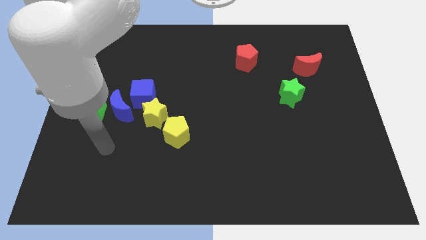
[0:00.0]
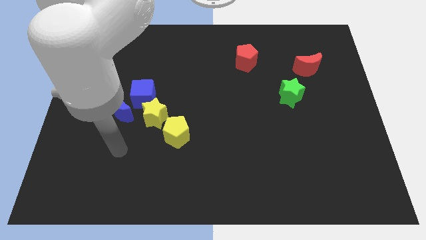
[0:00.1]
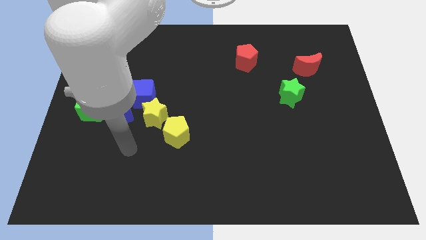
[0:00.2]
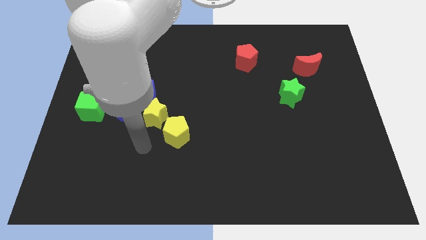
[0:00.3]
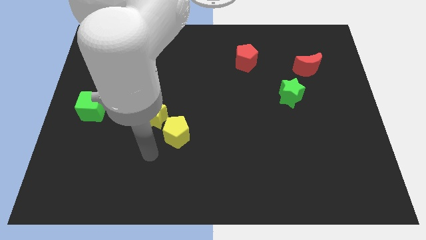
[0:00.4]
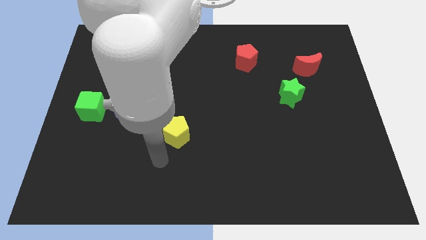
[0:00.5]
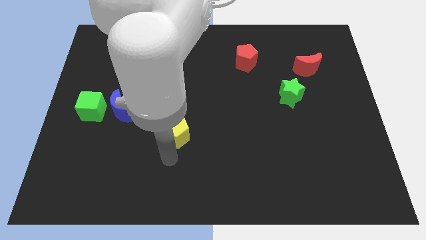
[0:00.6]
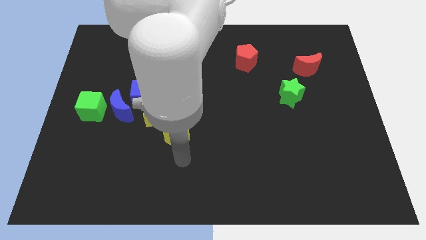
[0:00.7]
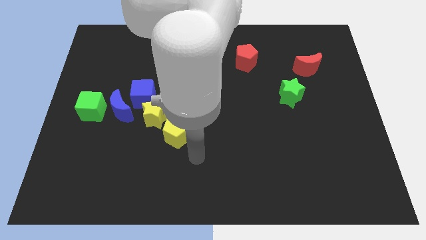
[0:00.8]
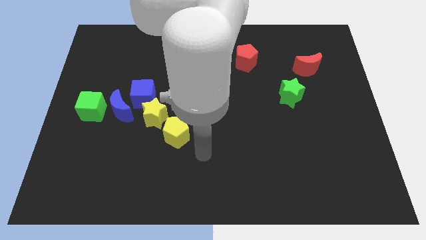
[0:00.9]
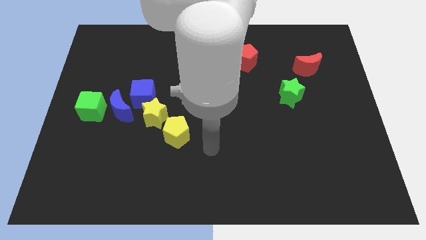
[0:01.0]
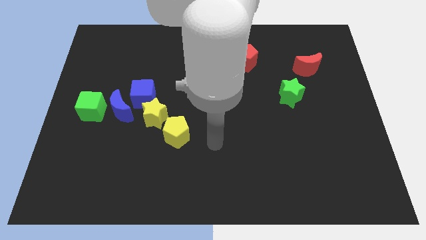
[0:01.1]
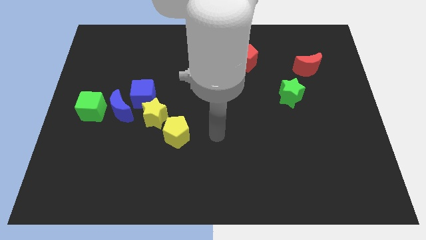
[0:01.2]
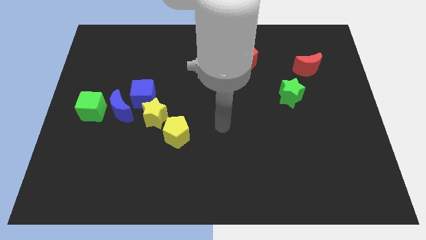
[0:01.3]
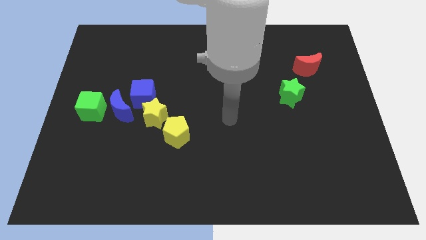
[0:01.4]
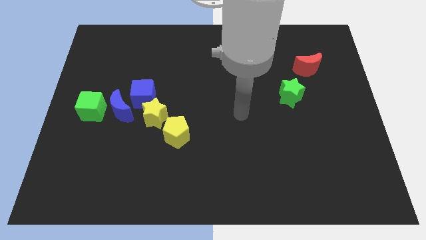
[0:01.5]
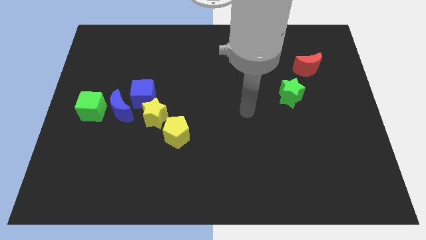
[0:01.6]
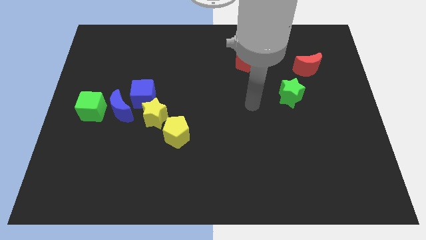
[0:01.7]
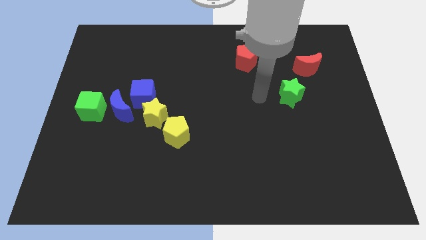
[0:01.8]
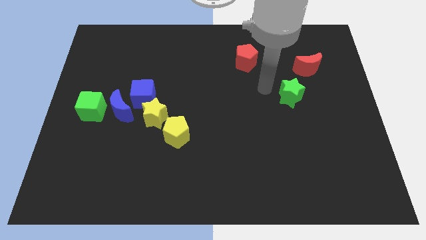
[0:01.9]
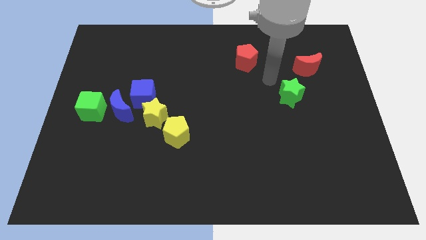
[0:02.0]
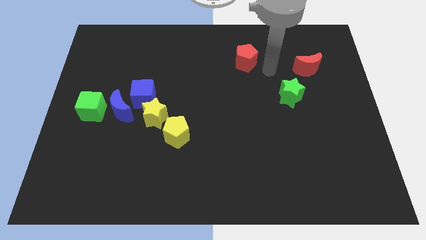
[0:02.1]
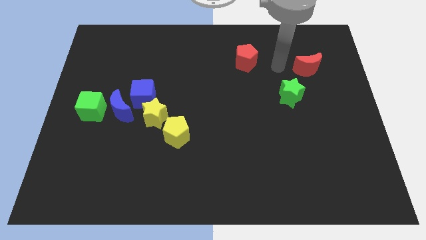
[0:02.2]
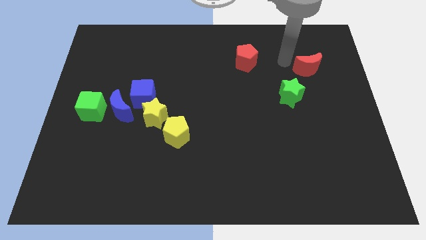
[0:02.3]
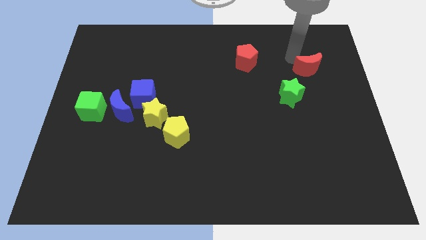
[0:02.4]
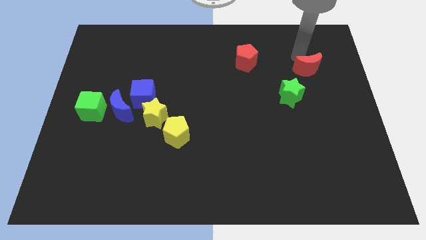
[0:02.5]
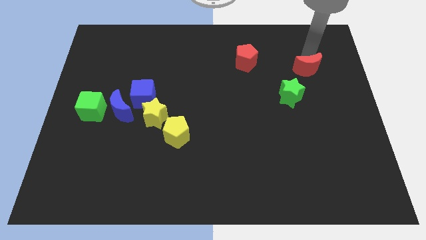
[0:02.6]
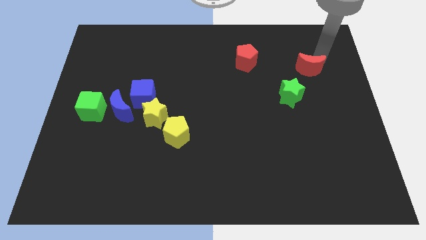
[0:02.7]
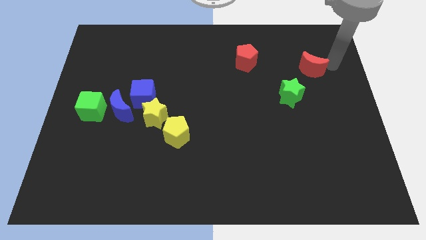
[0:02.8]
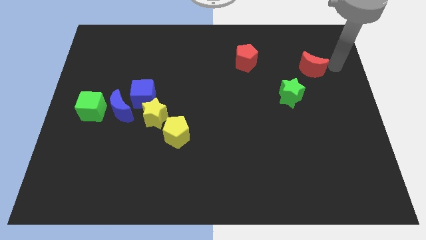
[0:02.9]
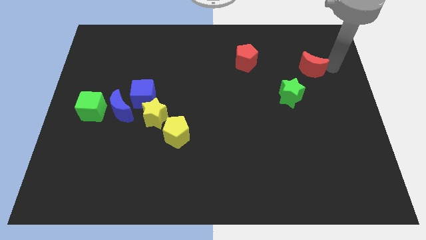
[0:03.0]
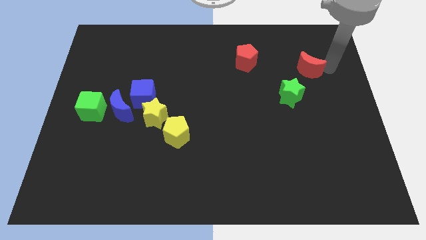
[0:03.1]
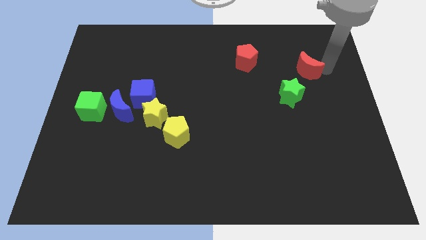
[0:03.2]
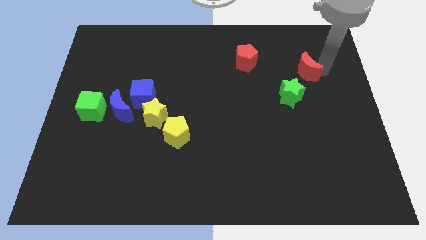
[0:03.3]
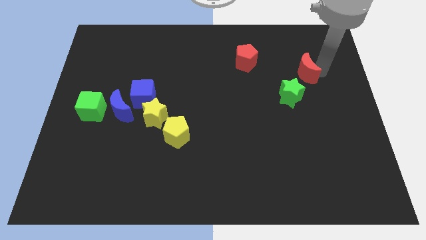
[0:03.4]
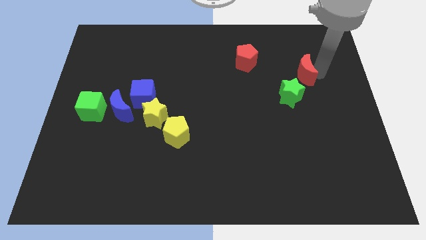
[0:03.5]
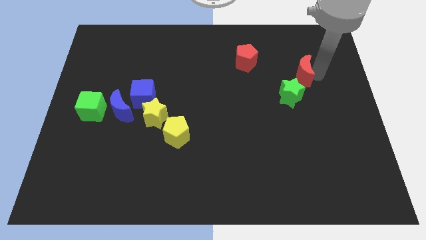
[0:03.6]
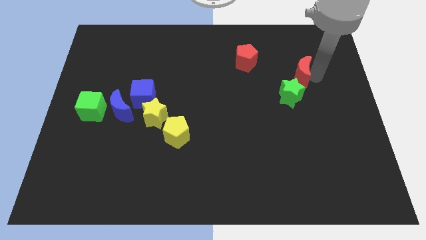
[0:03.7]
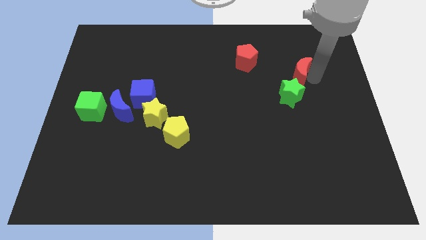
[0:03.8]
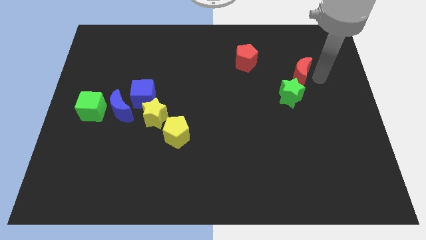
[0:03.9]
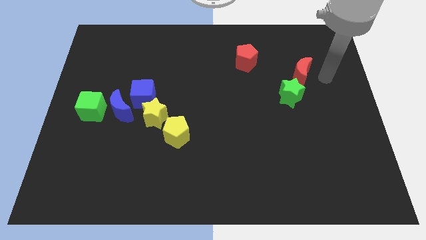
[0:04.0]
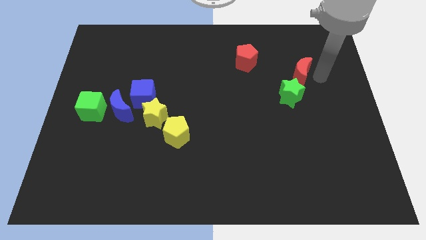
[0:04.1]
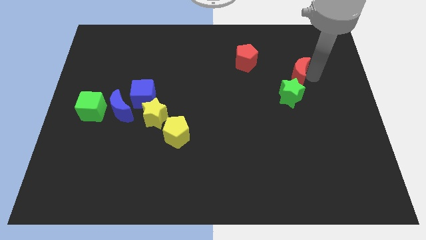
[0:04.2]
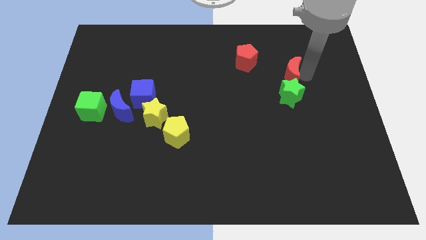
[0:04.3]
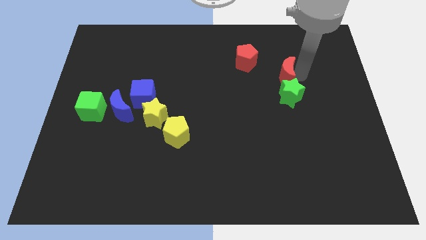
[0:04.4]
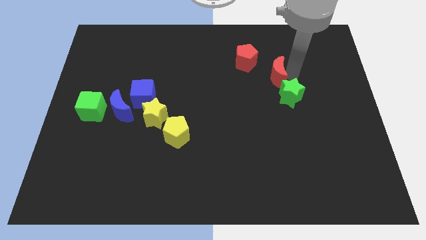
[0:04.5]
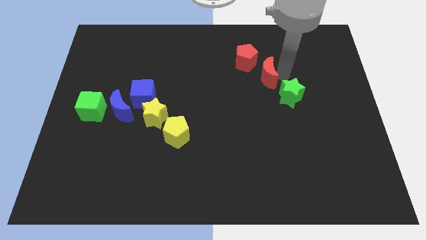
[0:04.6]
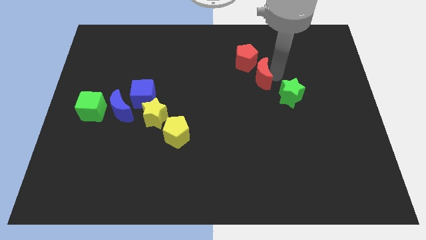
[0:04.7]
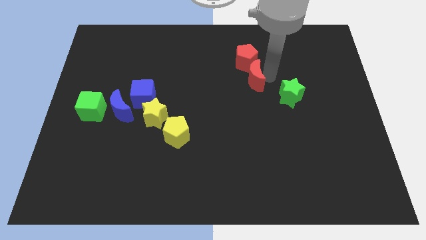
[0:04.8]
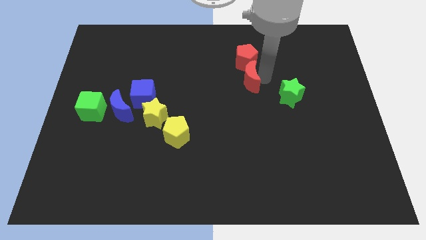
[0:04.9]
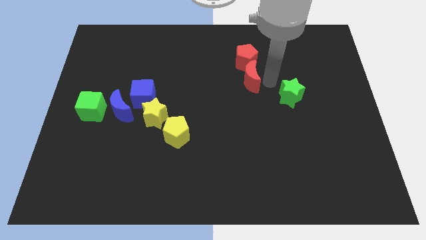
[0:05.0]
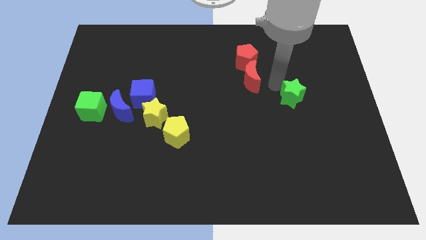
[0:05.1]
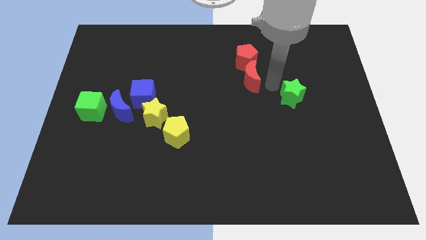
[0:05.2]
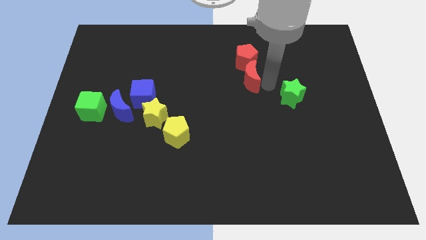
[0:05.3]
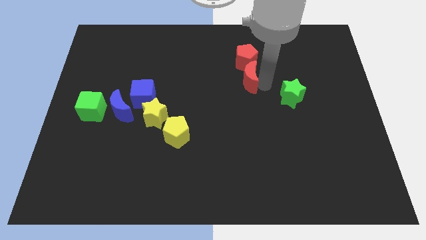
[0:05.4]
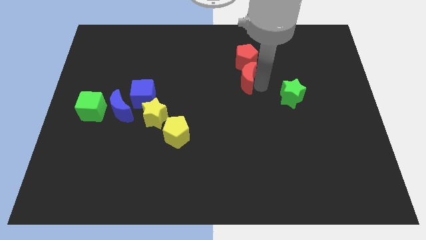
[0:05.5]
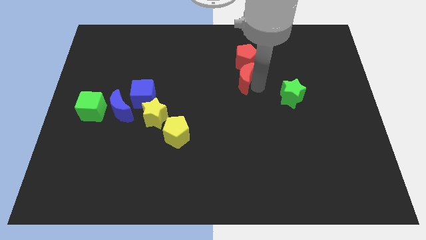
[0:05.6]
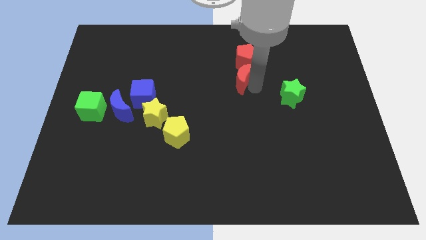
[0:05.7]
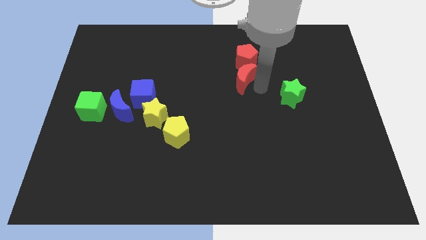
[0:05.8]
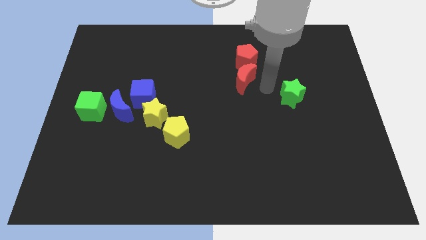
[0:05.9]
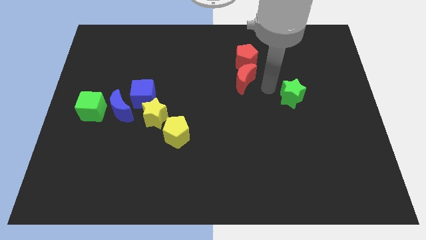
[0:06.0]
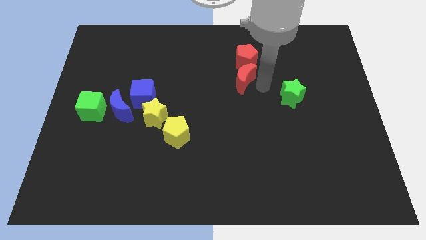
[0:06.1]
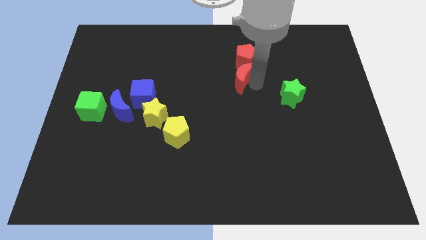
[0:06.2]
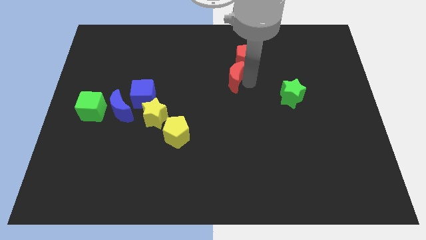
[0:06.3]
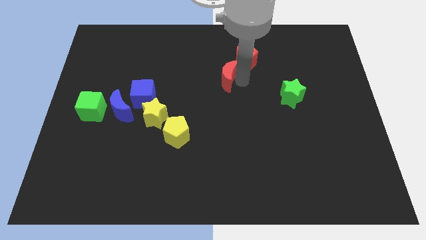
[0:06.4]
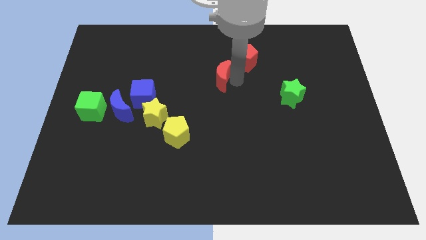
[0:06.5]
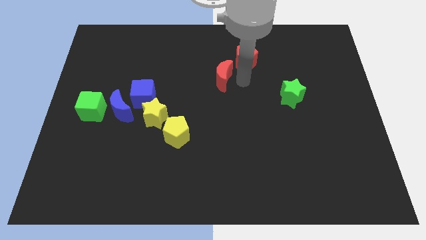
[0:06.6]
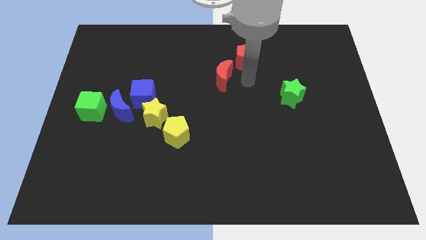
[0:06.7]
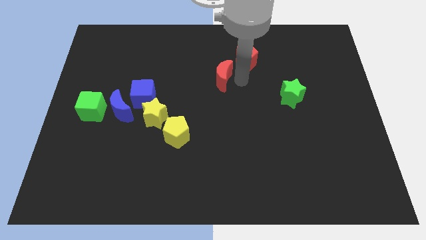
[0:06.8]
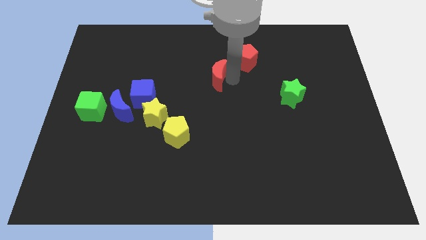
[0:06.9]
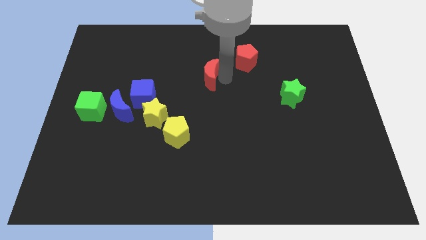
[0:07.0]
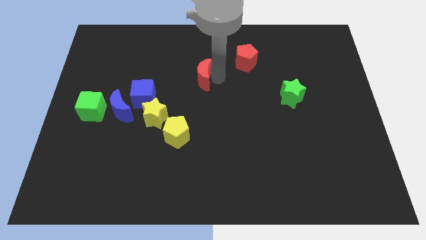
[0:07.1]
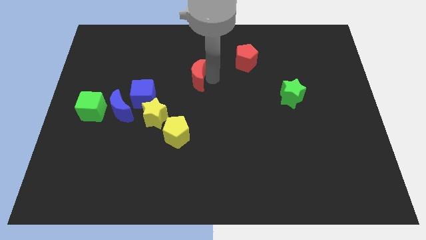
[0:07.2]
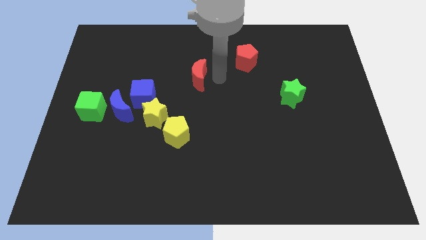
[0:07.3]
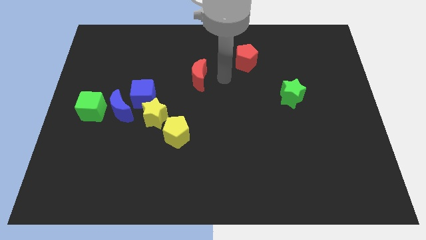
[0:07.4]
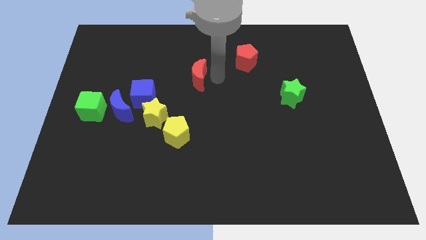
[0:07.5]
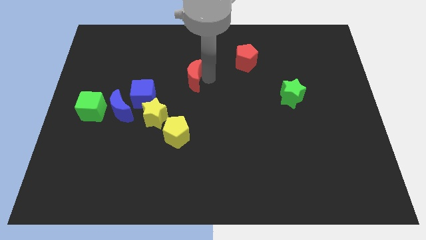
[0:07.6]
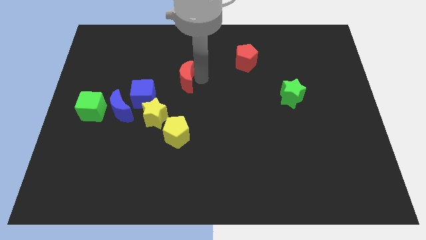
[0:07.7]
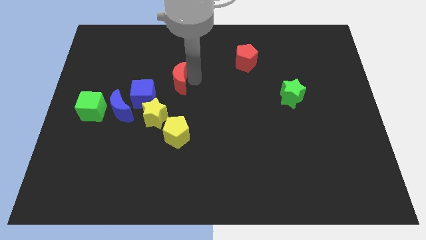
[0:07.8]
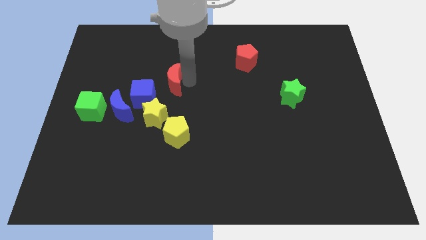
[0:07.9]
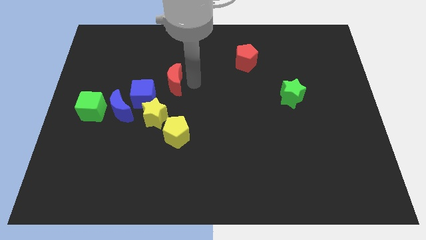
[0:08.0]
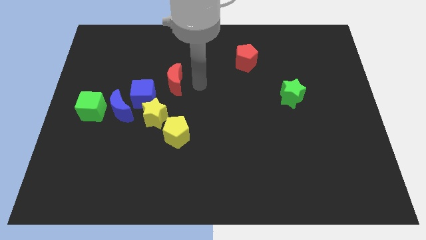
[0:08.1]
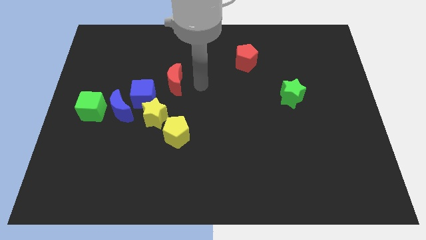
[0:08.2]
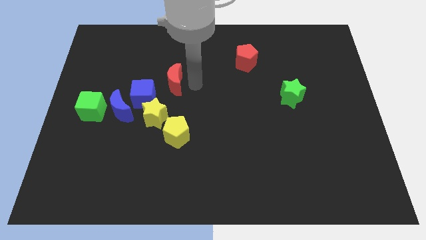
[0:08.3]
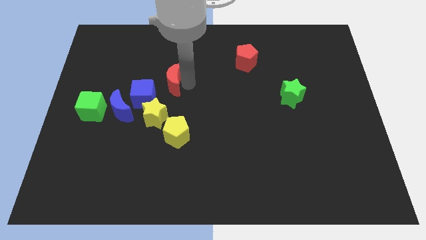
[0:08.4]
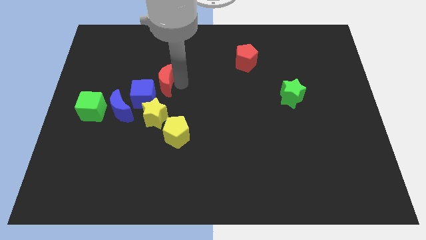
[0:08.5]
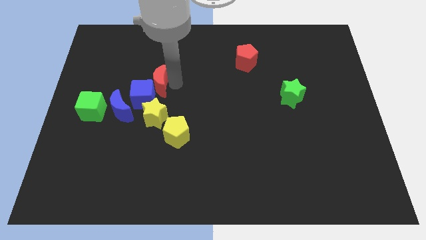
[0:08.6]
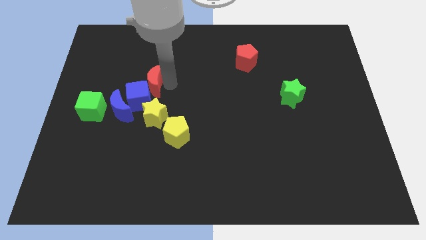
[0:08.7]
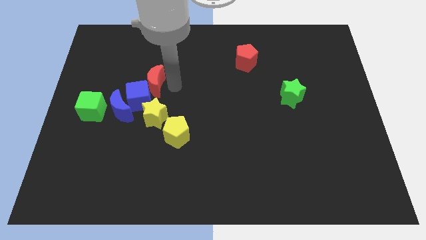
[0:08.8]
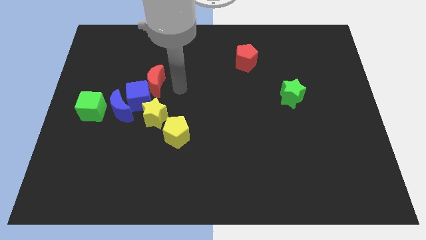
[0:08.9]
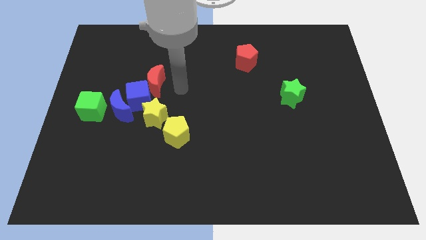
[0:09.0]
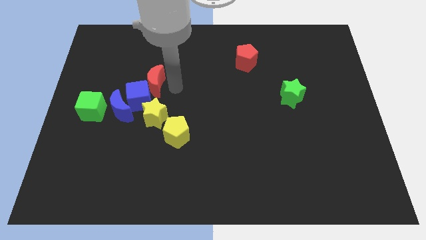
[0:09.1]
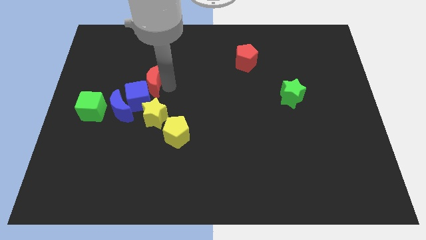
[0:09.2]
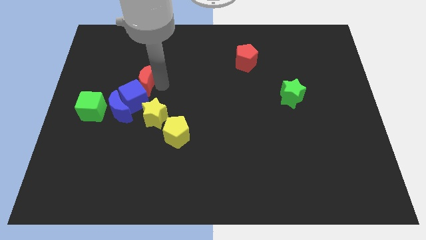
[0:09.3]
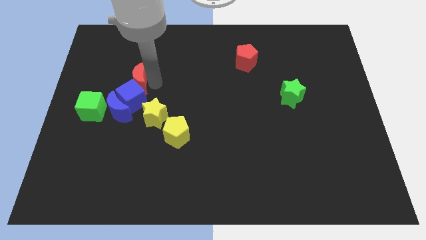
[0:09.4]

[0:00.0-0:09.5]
push the red moon above the blue moon
